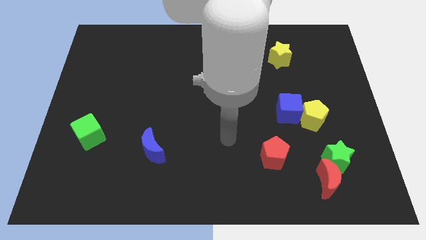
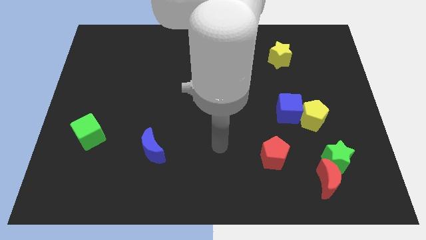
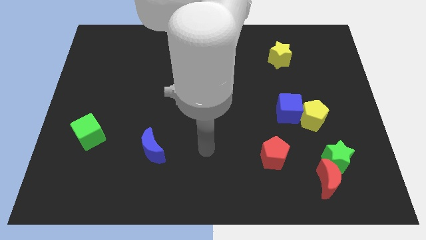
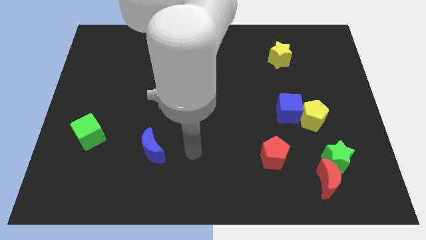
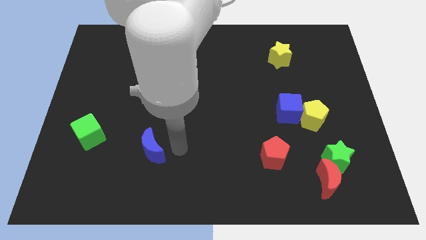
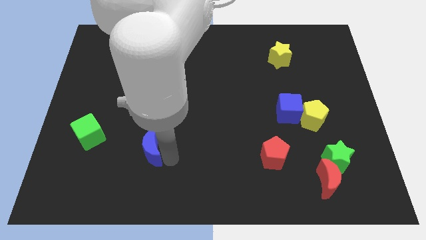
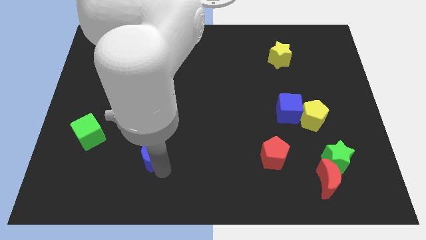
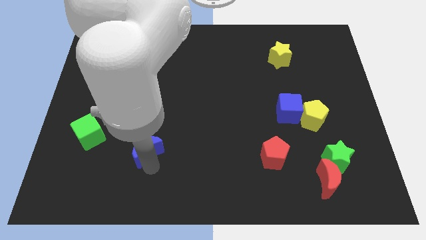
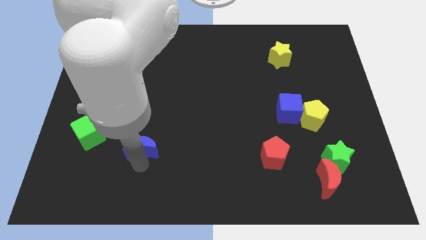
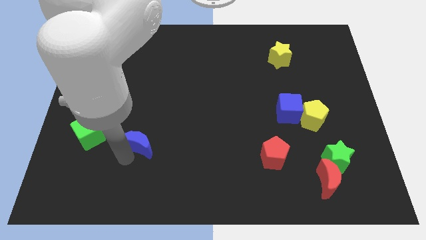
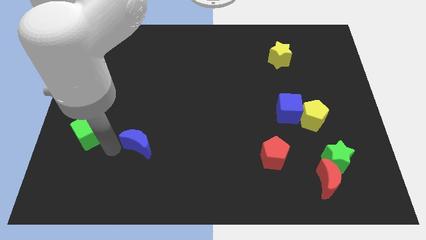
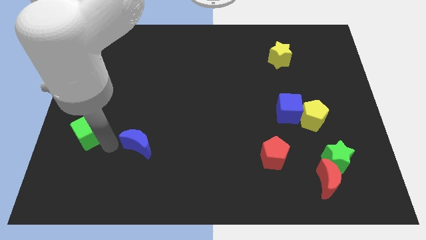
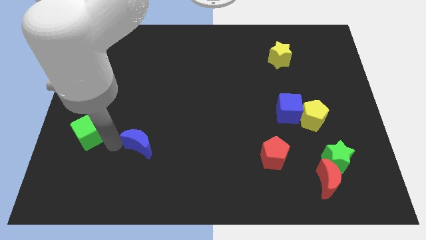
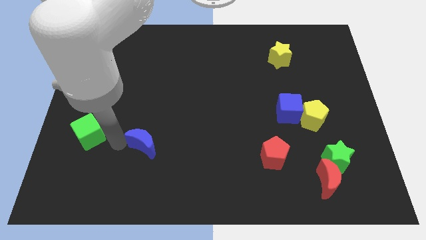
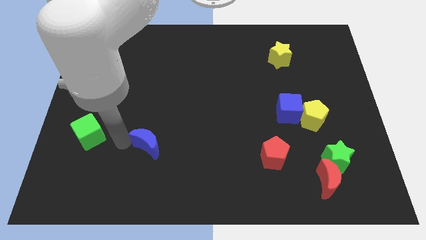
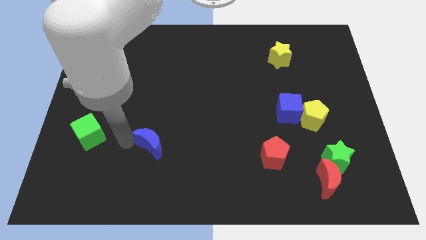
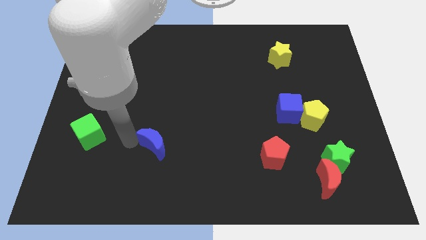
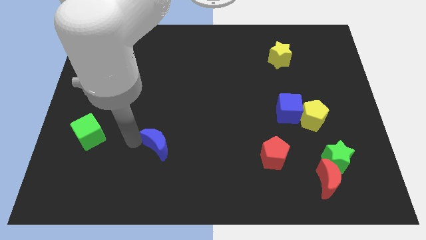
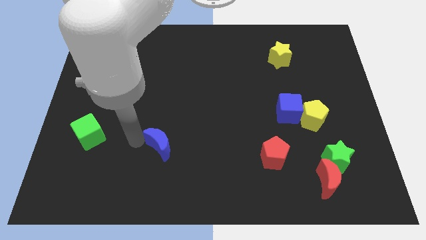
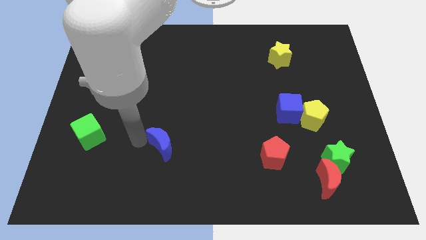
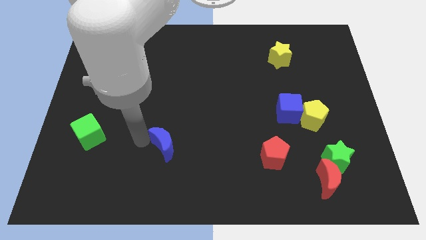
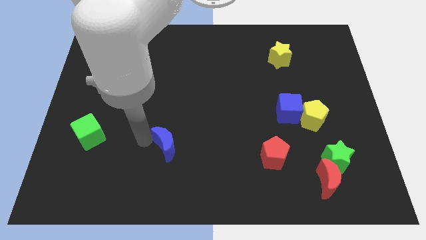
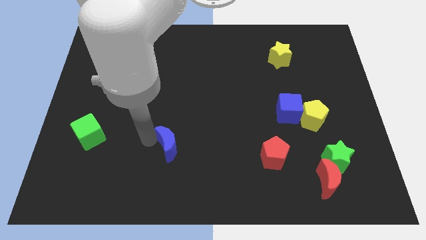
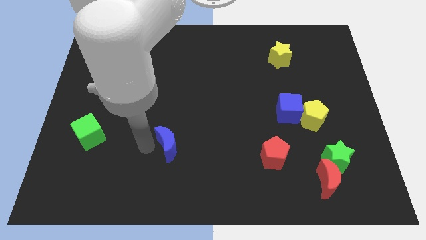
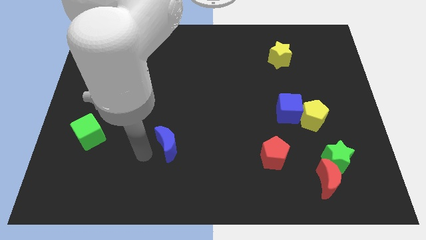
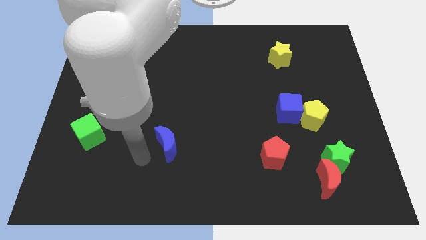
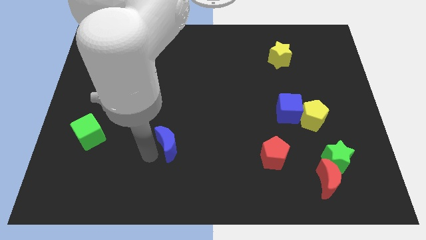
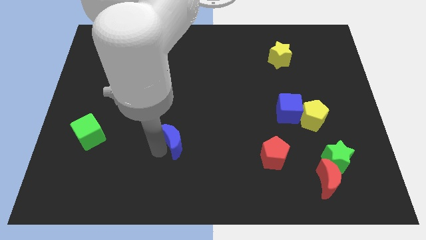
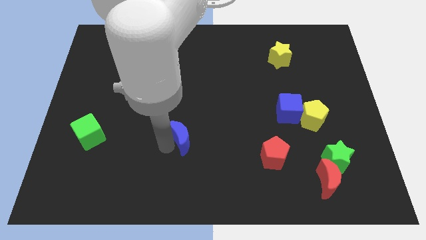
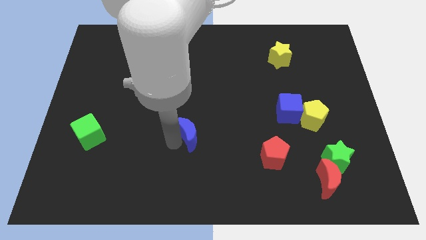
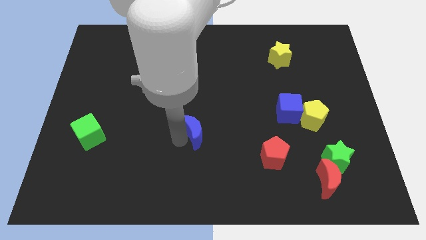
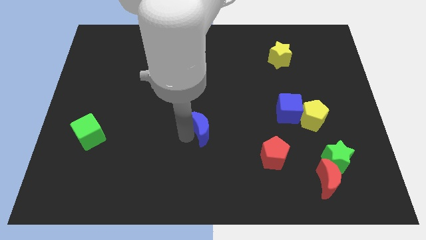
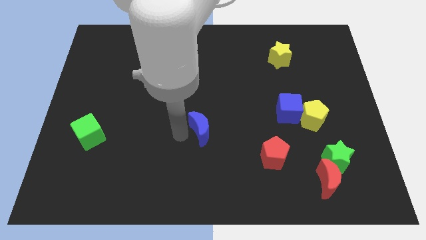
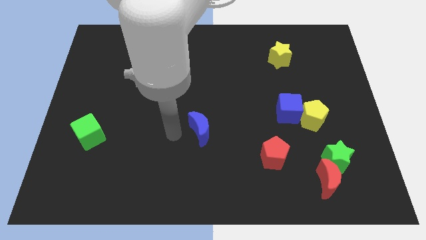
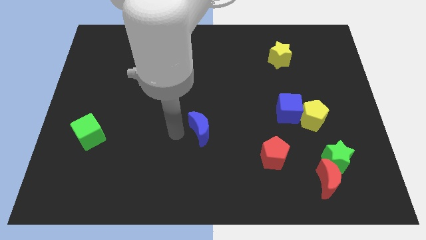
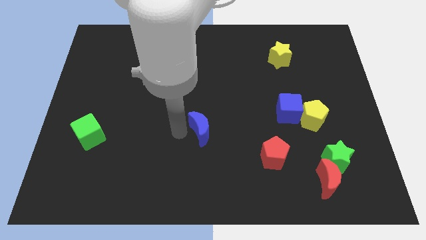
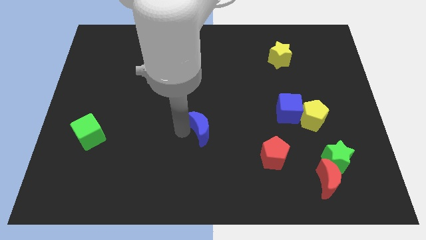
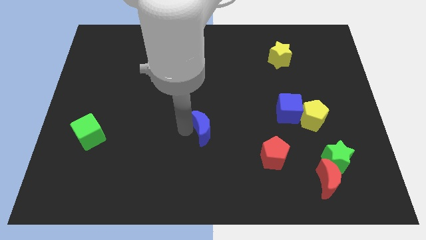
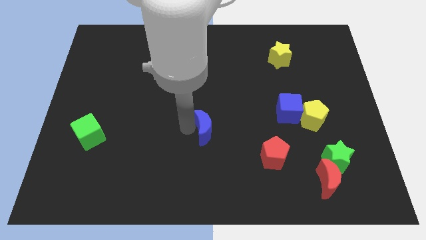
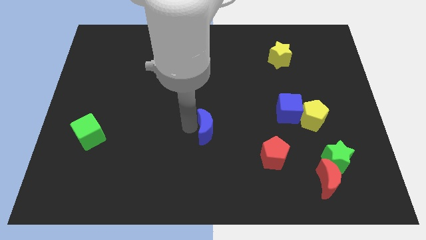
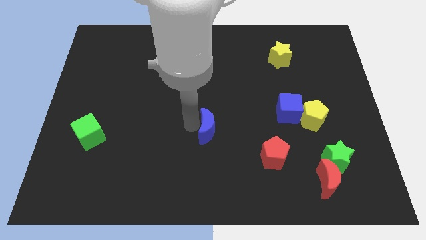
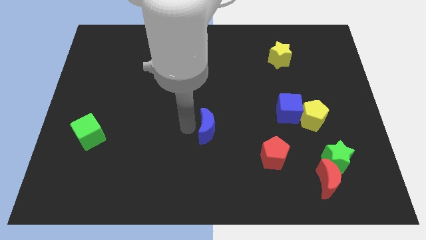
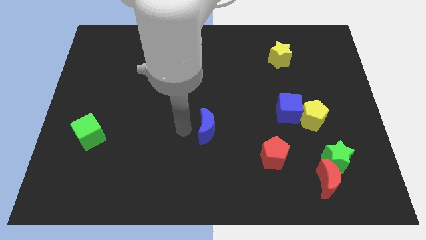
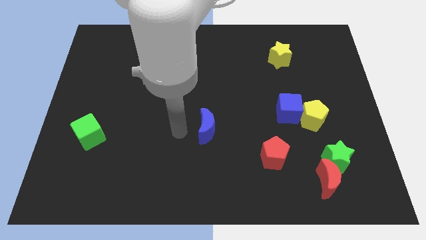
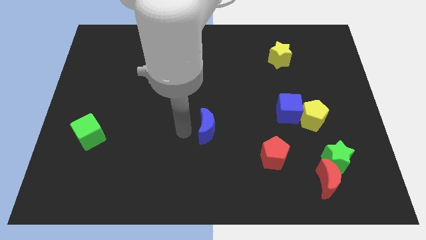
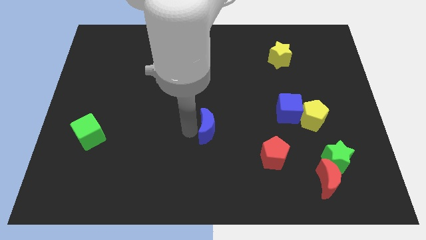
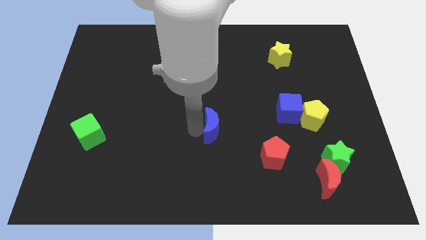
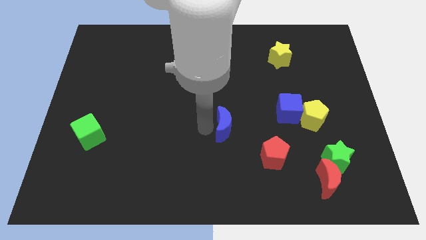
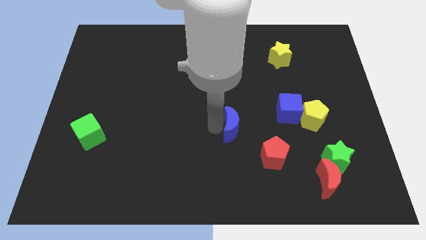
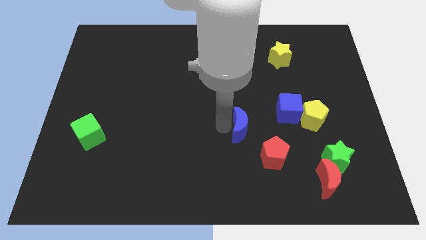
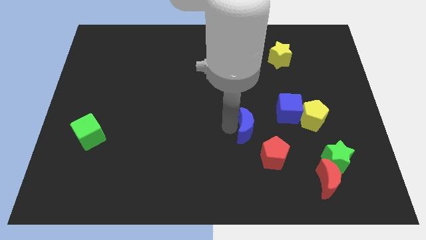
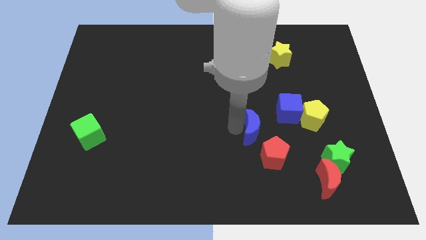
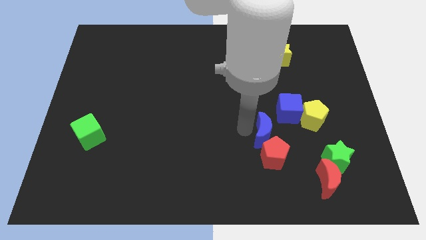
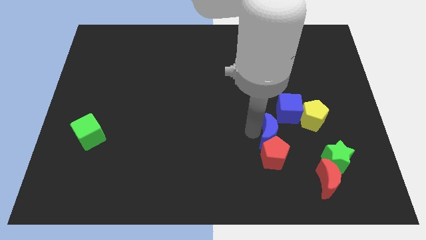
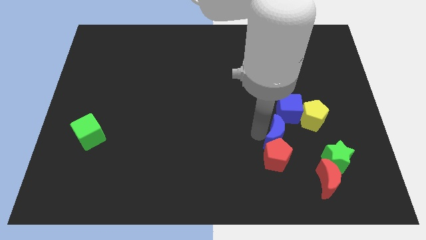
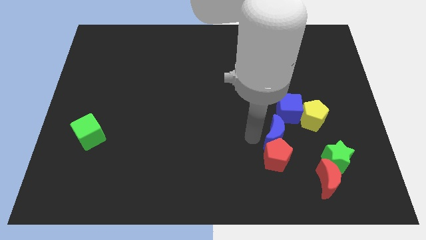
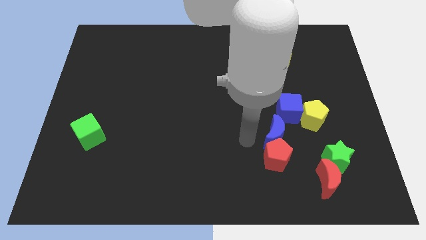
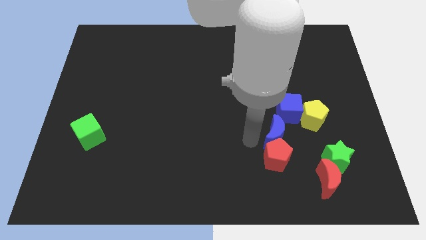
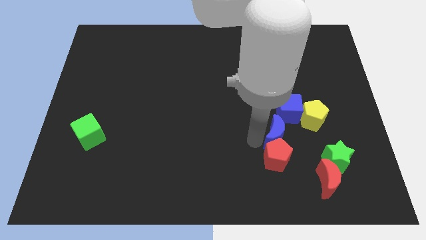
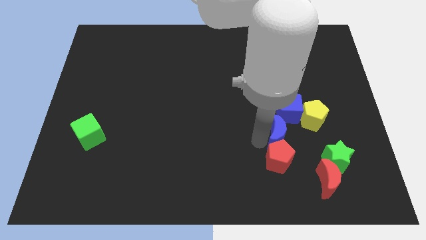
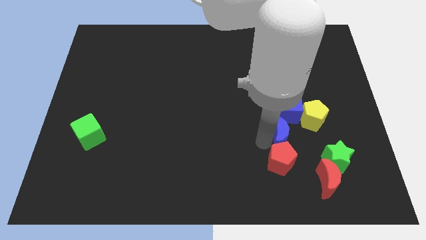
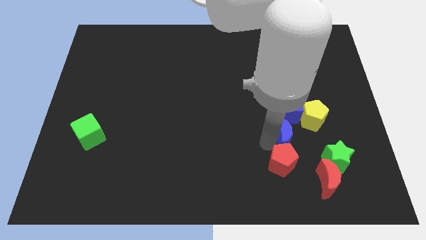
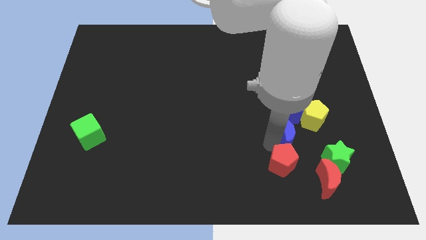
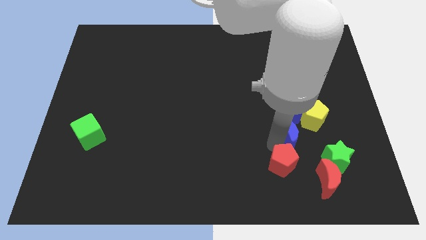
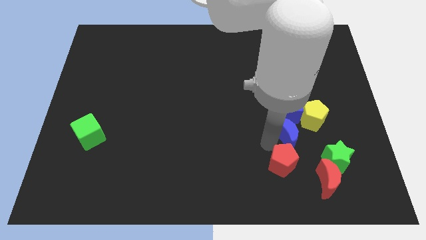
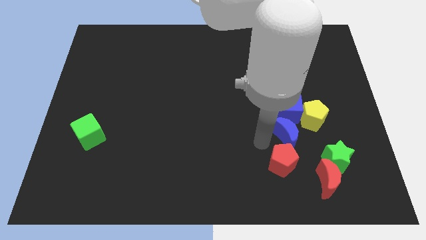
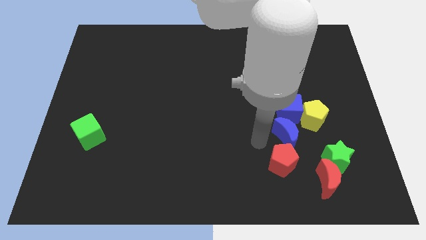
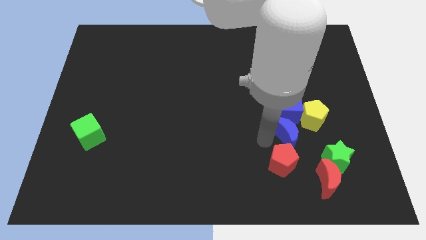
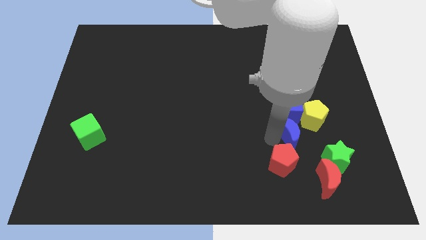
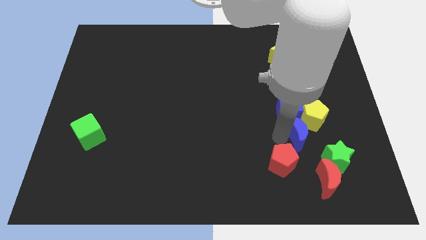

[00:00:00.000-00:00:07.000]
push the blue moon diagonally down and to the right of the blue cube
